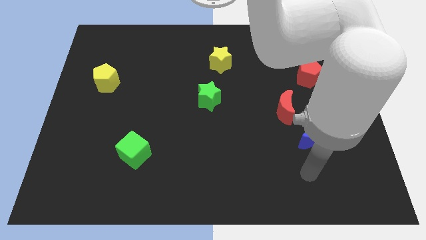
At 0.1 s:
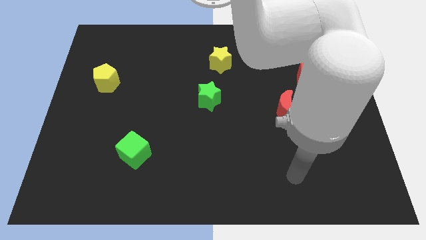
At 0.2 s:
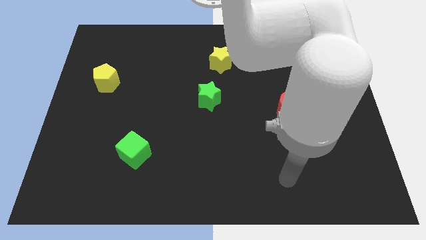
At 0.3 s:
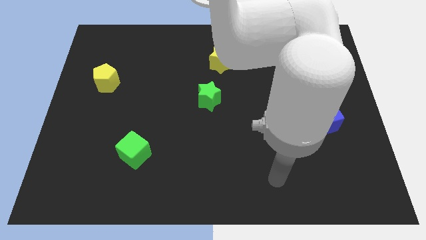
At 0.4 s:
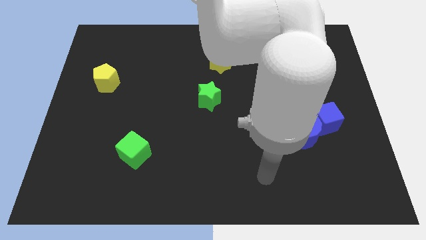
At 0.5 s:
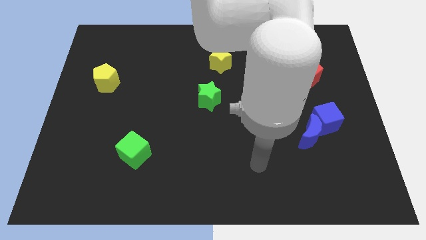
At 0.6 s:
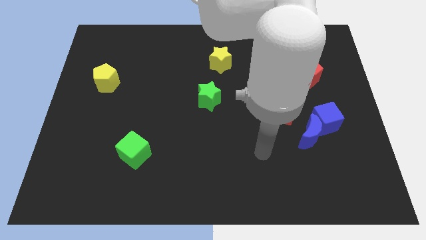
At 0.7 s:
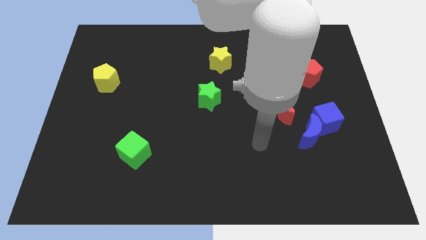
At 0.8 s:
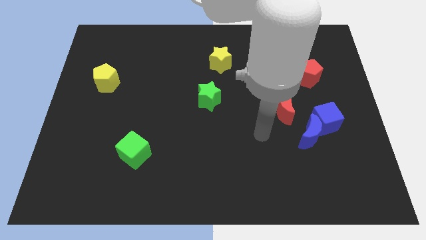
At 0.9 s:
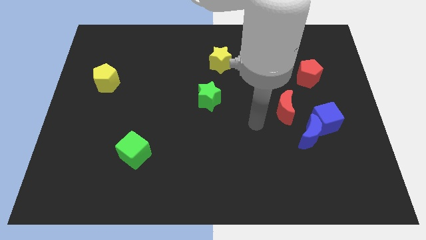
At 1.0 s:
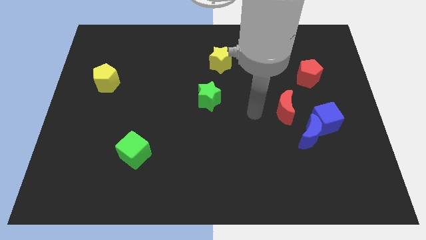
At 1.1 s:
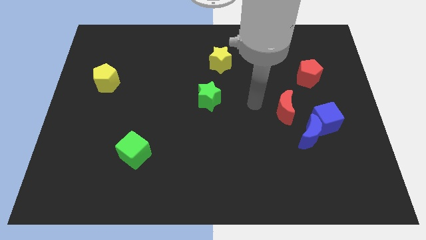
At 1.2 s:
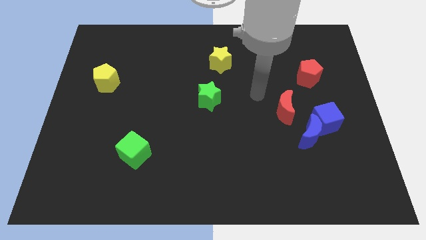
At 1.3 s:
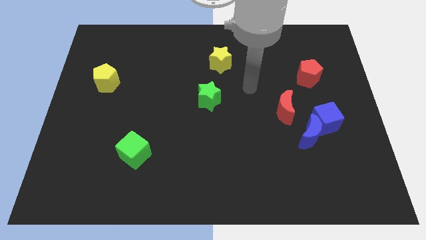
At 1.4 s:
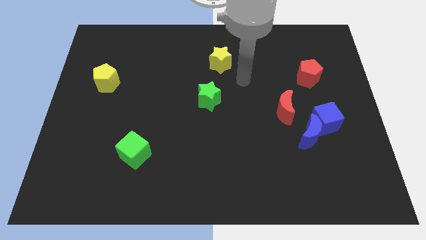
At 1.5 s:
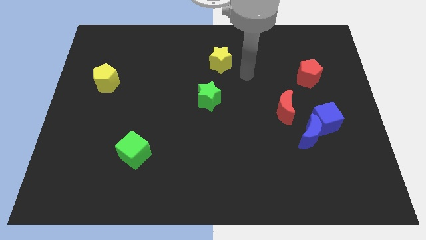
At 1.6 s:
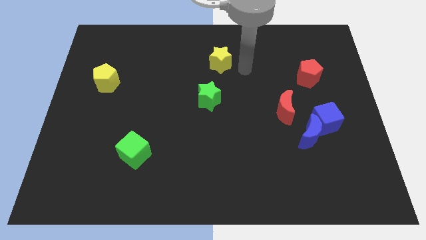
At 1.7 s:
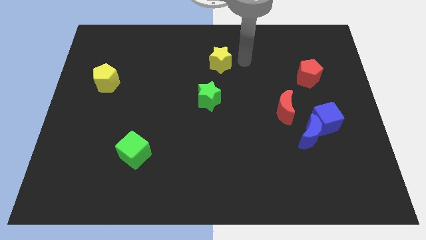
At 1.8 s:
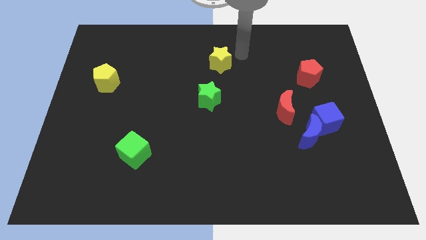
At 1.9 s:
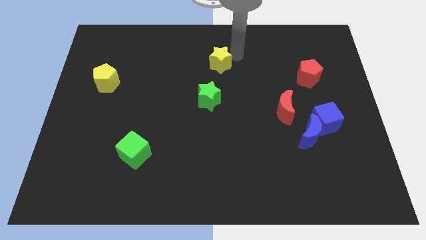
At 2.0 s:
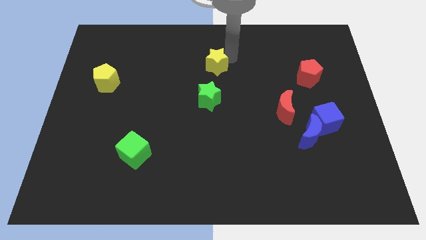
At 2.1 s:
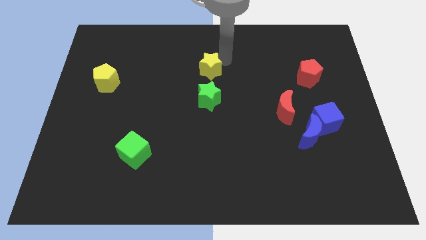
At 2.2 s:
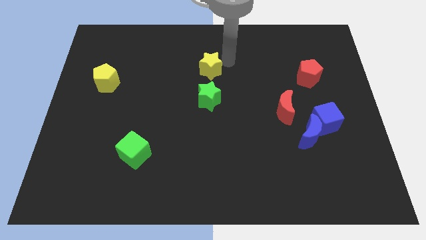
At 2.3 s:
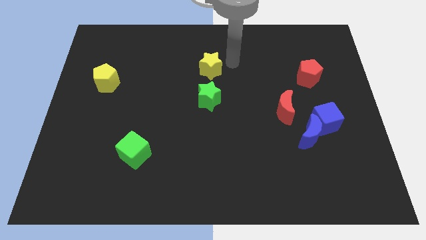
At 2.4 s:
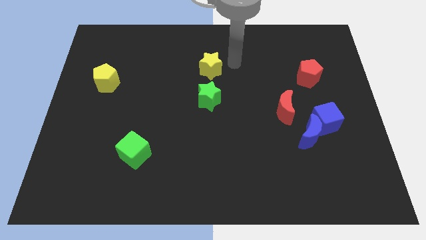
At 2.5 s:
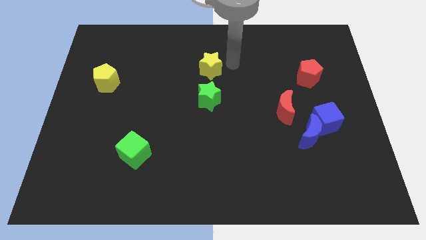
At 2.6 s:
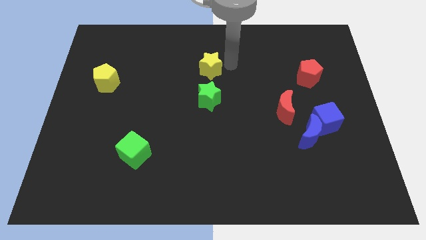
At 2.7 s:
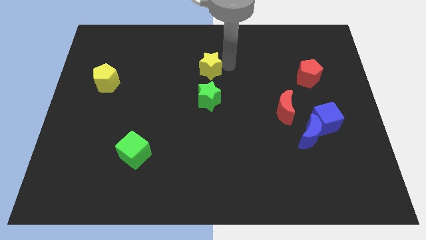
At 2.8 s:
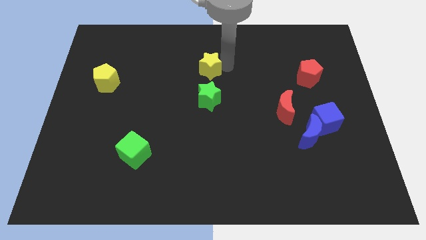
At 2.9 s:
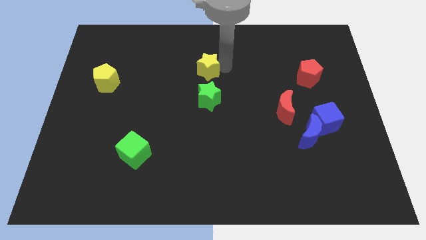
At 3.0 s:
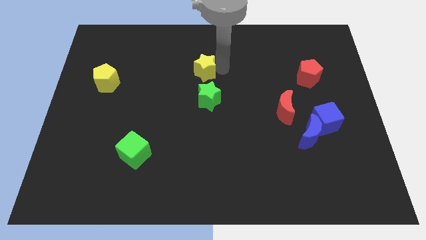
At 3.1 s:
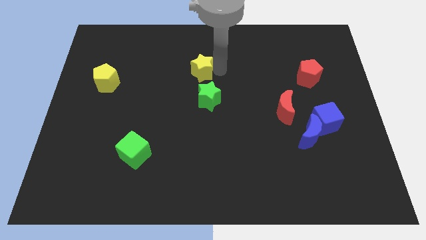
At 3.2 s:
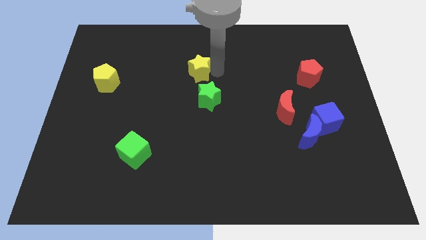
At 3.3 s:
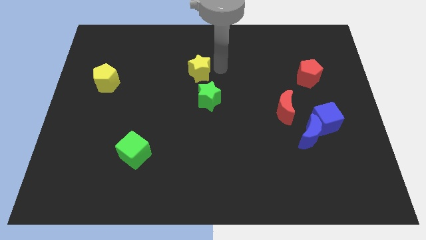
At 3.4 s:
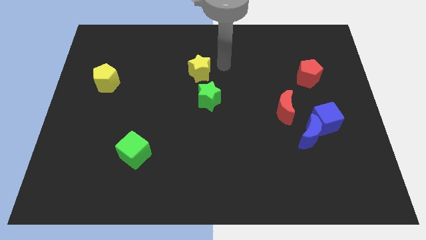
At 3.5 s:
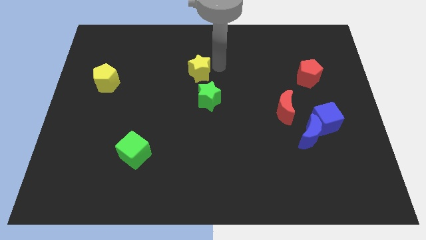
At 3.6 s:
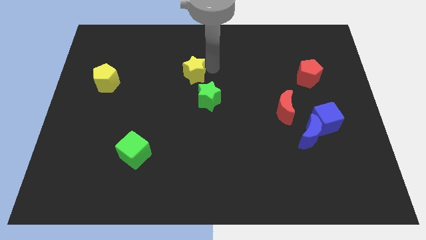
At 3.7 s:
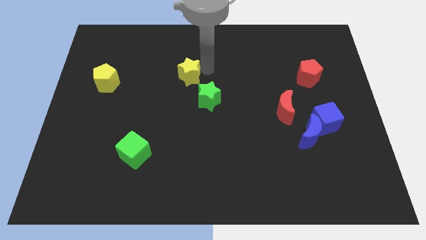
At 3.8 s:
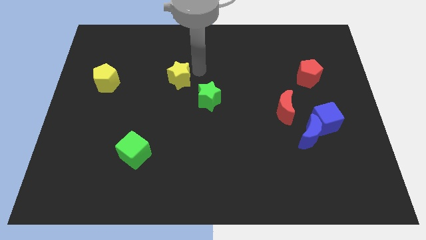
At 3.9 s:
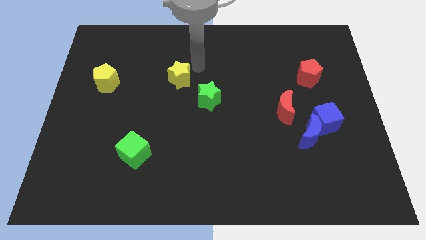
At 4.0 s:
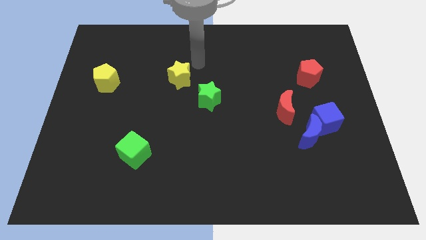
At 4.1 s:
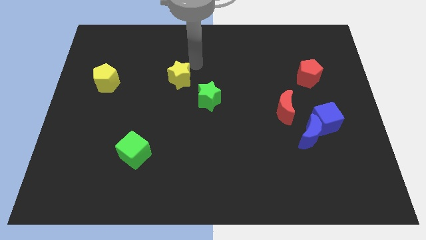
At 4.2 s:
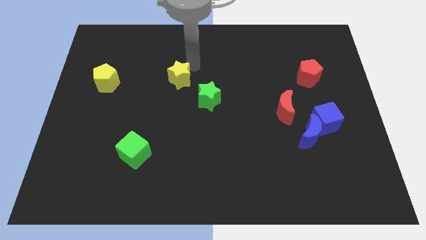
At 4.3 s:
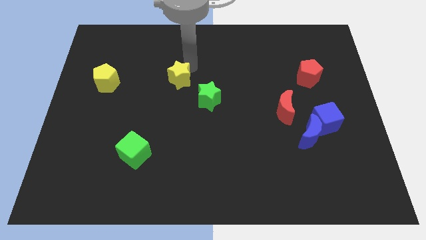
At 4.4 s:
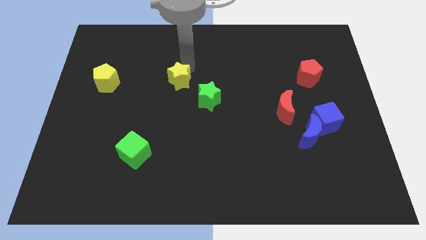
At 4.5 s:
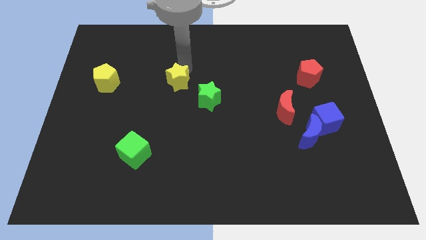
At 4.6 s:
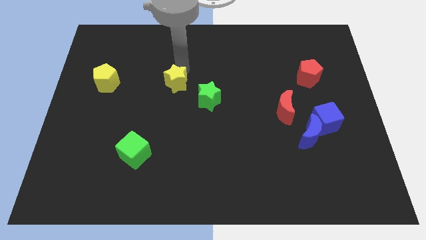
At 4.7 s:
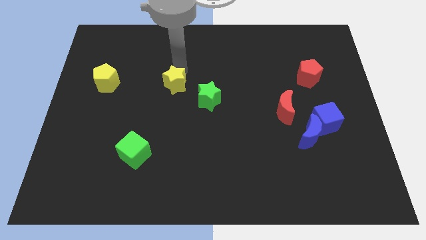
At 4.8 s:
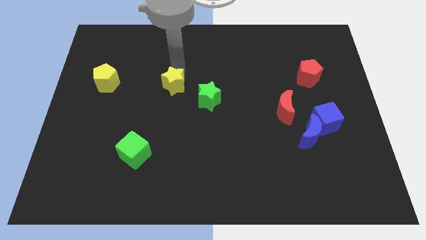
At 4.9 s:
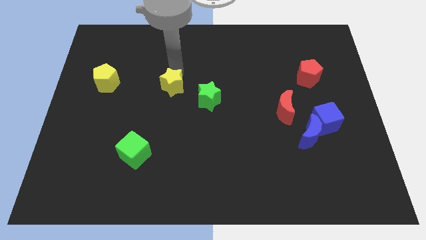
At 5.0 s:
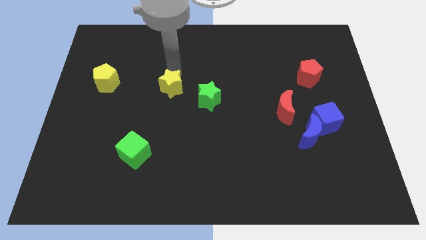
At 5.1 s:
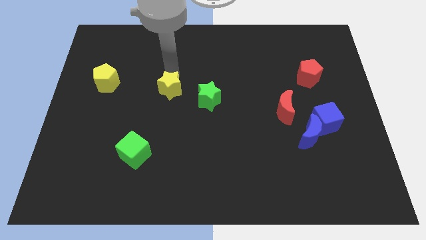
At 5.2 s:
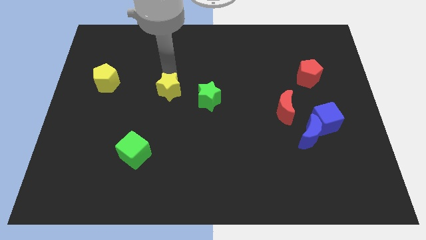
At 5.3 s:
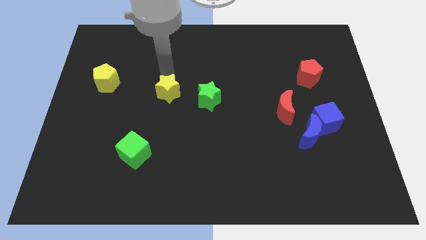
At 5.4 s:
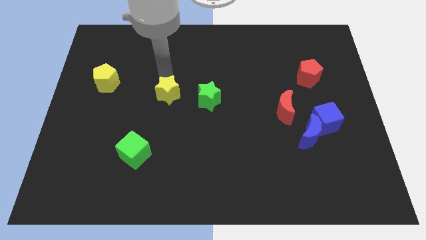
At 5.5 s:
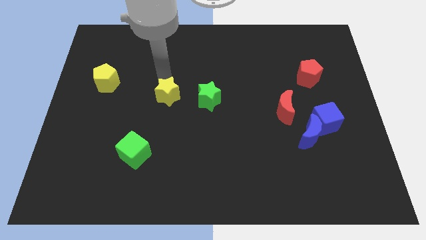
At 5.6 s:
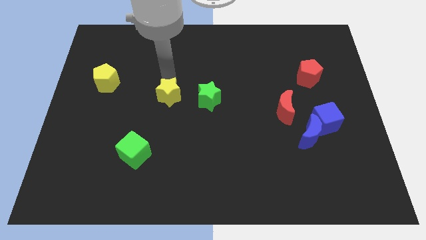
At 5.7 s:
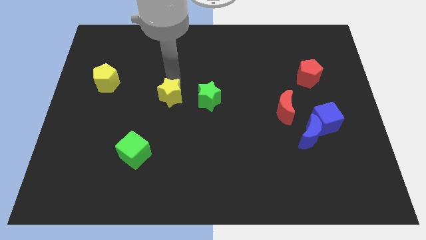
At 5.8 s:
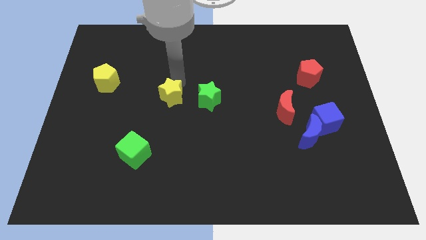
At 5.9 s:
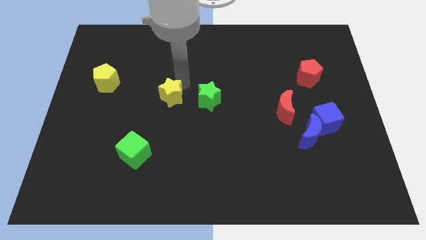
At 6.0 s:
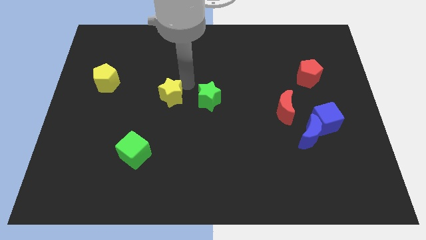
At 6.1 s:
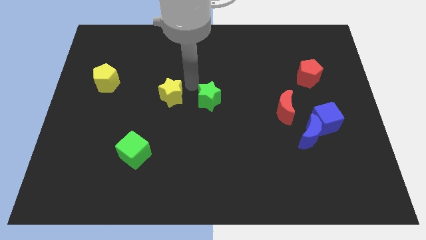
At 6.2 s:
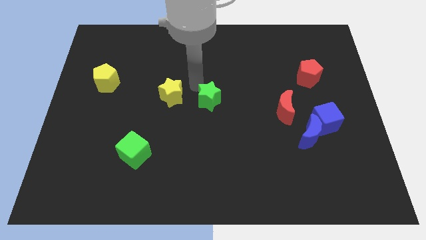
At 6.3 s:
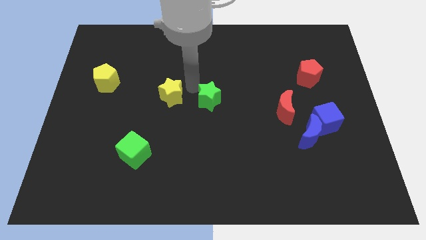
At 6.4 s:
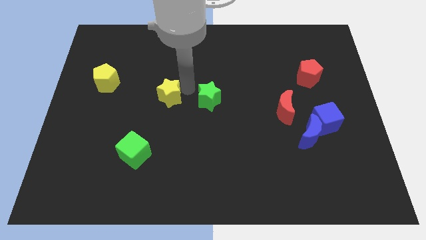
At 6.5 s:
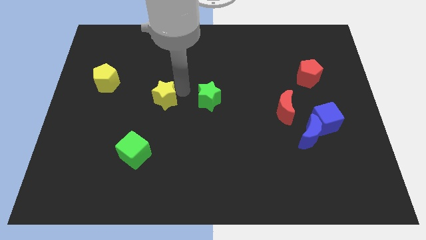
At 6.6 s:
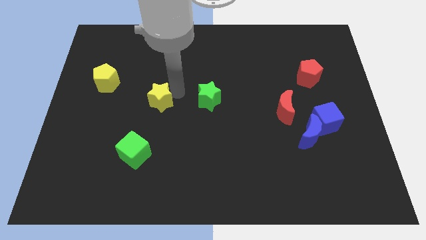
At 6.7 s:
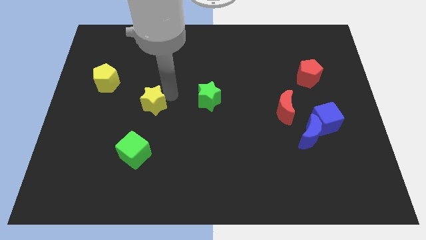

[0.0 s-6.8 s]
move the yellow star down and to the left diagonally

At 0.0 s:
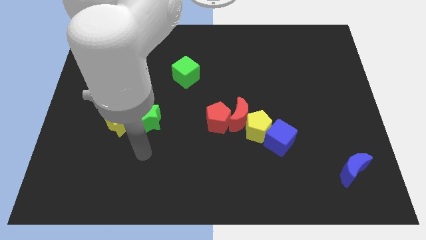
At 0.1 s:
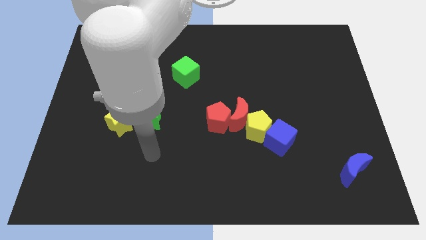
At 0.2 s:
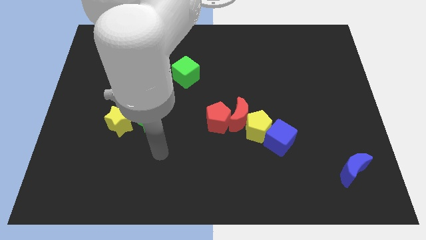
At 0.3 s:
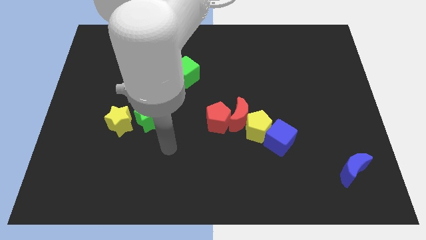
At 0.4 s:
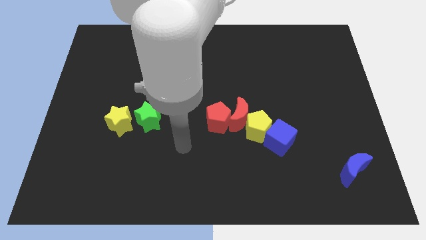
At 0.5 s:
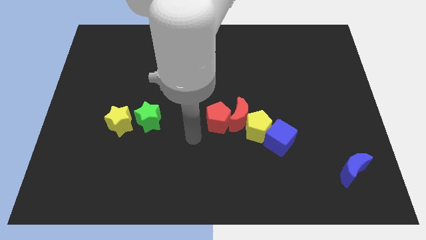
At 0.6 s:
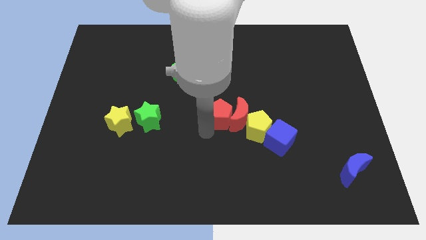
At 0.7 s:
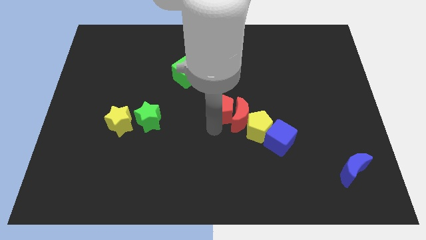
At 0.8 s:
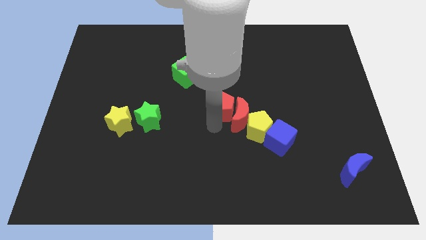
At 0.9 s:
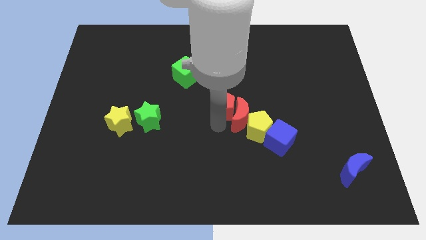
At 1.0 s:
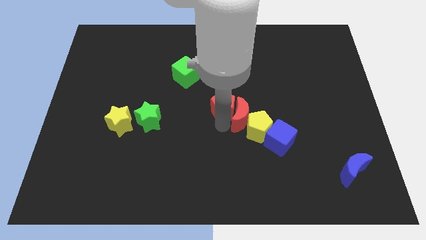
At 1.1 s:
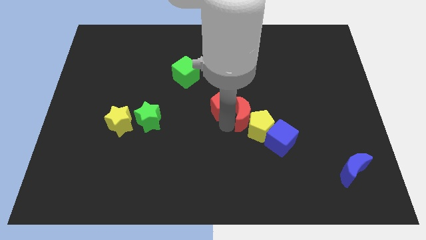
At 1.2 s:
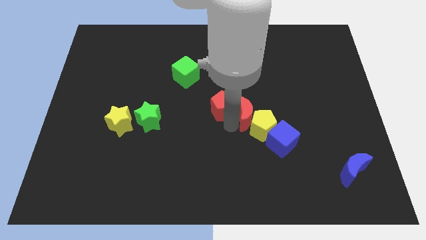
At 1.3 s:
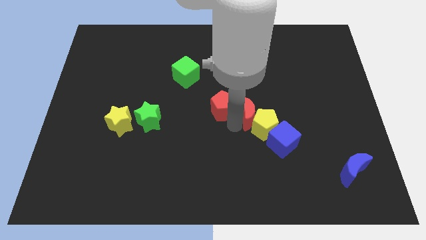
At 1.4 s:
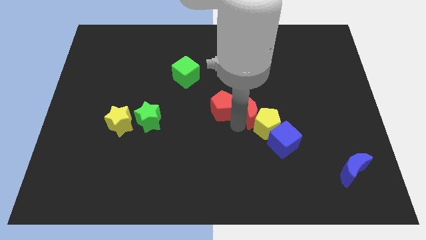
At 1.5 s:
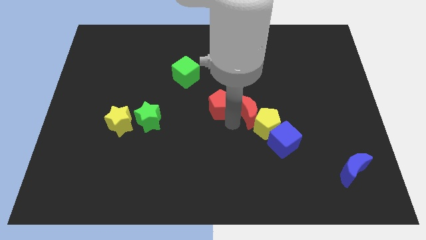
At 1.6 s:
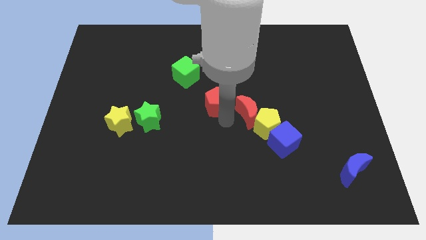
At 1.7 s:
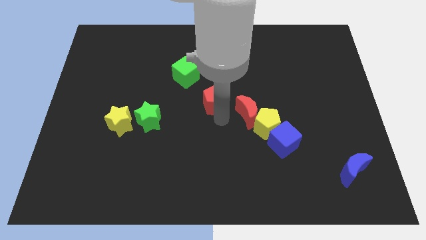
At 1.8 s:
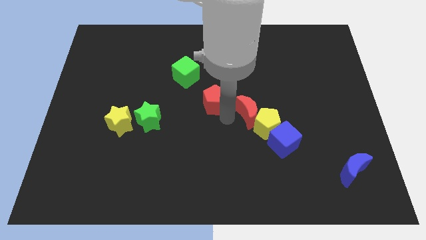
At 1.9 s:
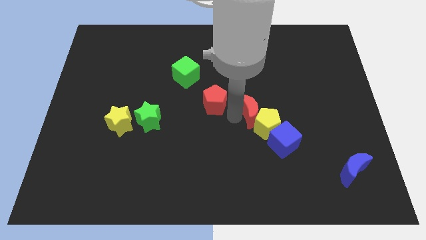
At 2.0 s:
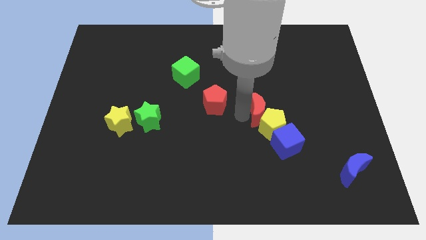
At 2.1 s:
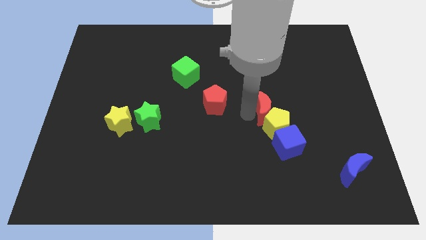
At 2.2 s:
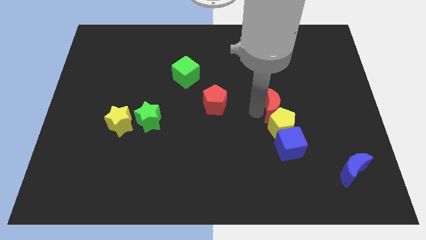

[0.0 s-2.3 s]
slightly move the red moon to the right
